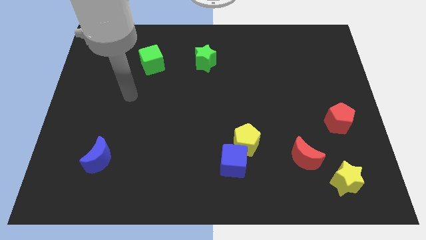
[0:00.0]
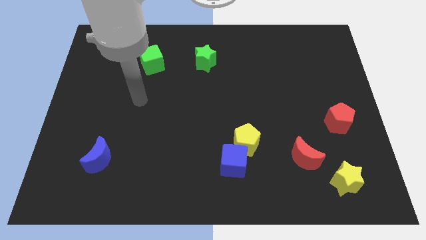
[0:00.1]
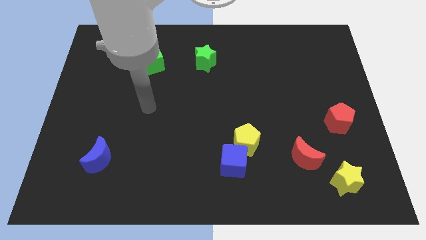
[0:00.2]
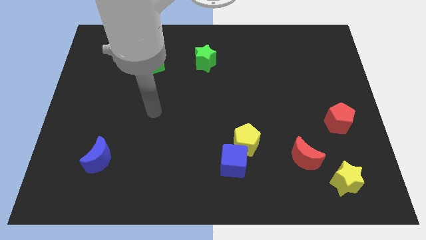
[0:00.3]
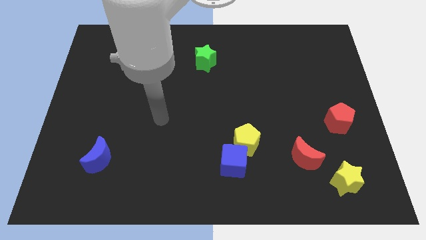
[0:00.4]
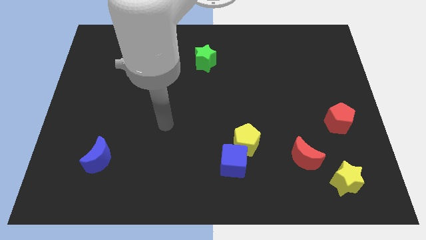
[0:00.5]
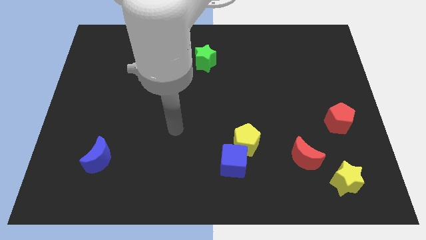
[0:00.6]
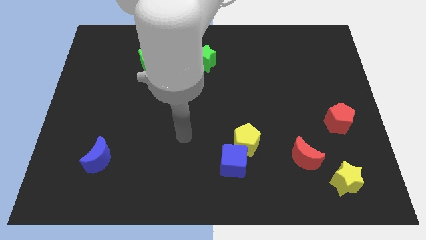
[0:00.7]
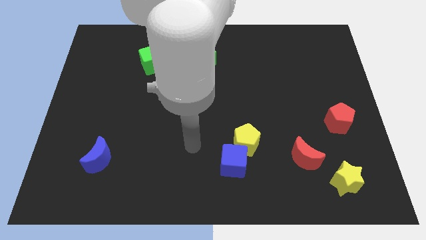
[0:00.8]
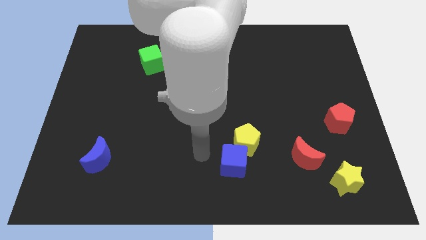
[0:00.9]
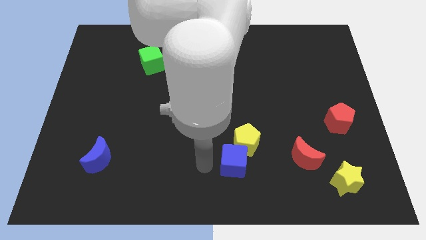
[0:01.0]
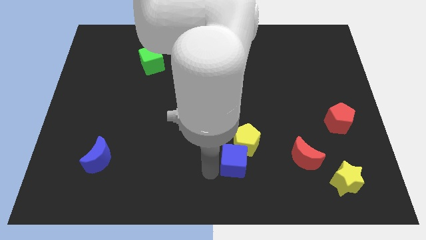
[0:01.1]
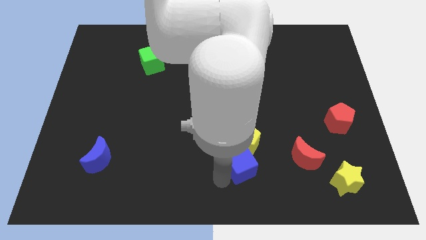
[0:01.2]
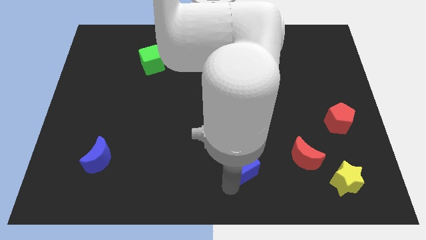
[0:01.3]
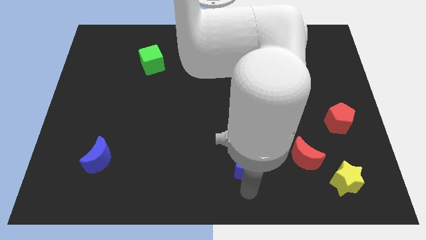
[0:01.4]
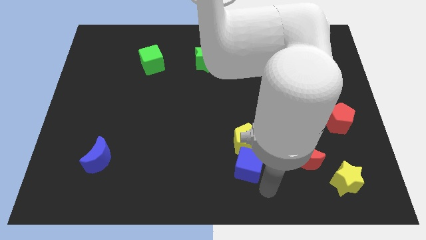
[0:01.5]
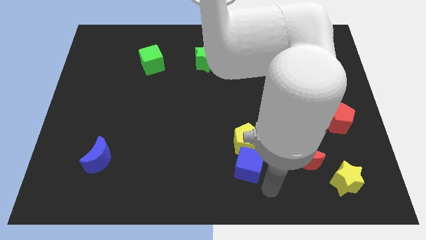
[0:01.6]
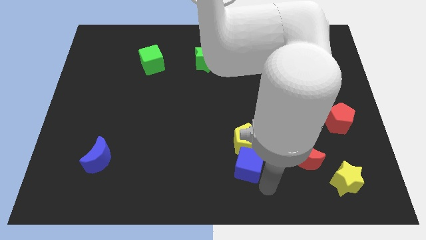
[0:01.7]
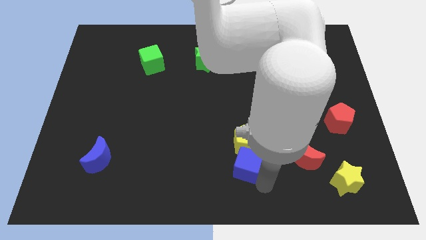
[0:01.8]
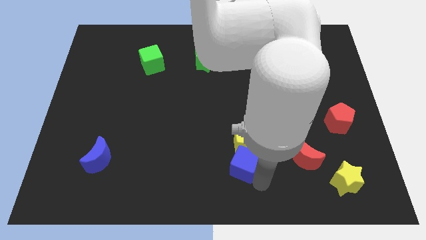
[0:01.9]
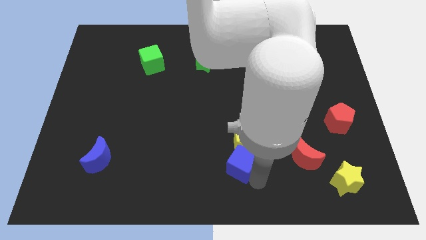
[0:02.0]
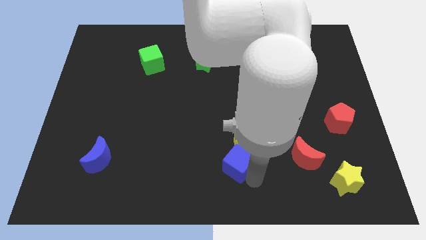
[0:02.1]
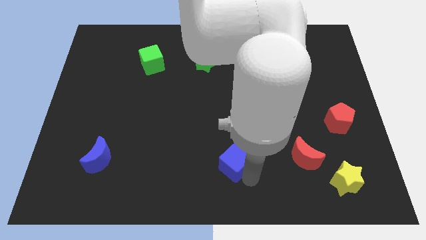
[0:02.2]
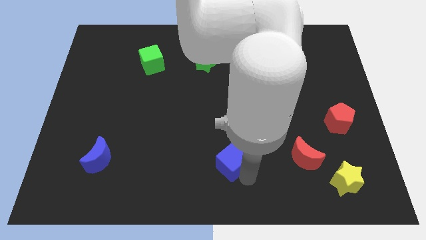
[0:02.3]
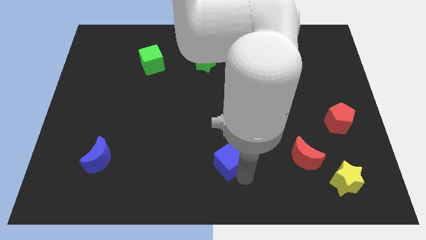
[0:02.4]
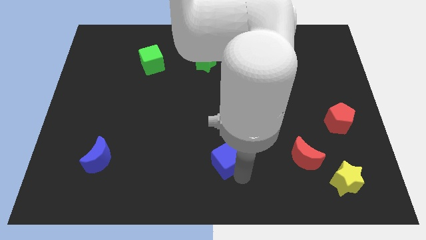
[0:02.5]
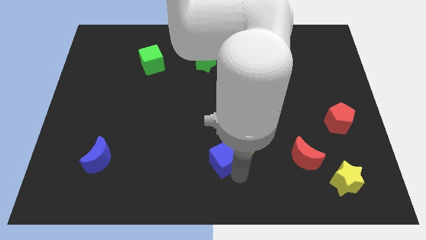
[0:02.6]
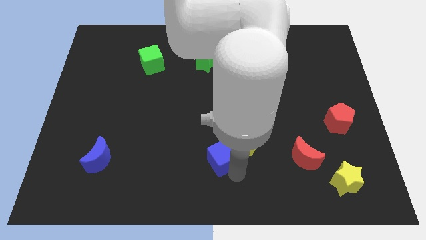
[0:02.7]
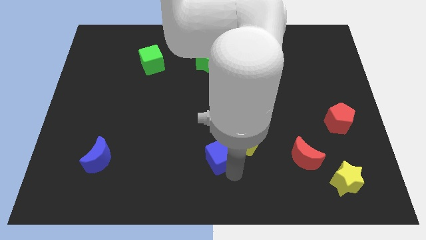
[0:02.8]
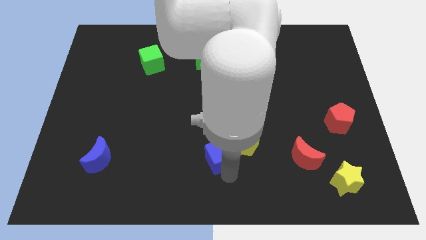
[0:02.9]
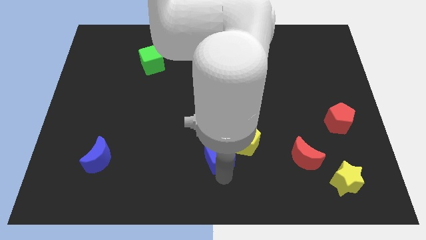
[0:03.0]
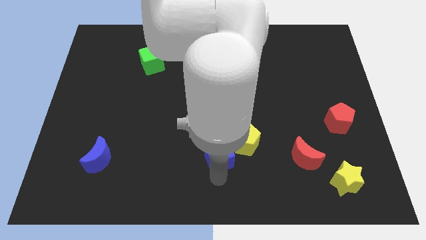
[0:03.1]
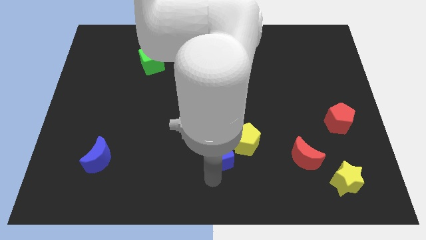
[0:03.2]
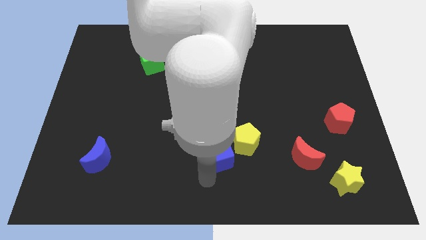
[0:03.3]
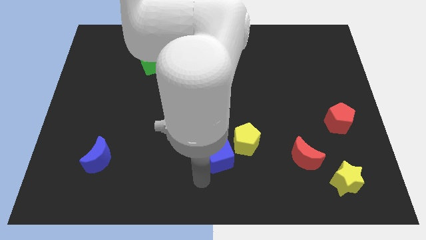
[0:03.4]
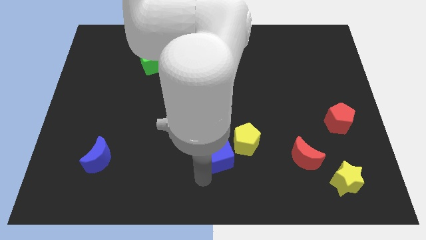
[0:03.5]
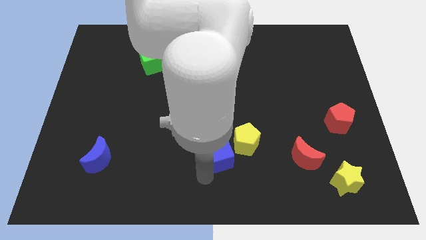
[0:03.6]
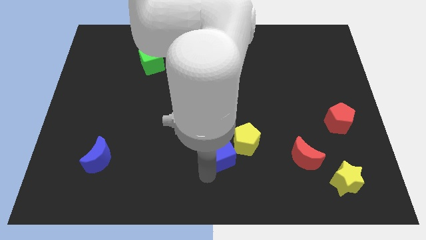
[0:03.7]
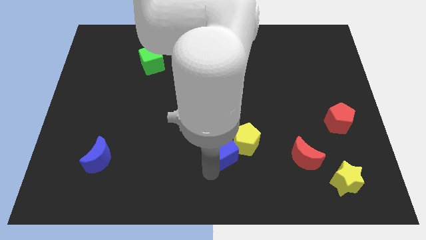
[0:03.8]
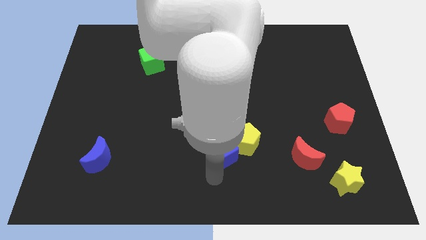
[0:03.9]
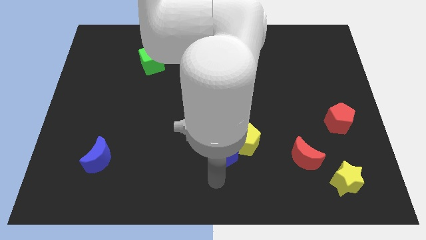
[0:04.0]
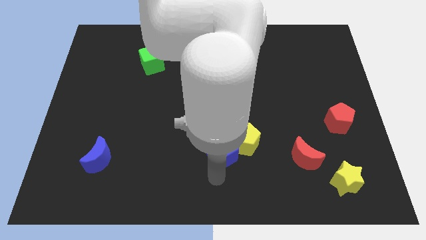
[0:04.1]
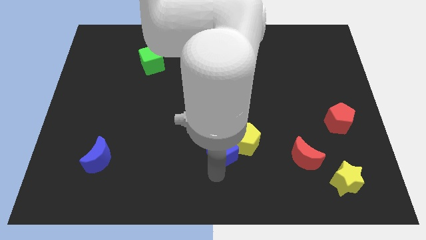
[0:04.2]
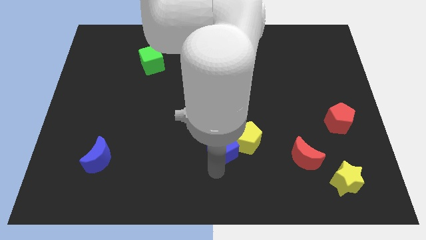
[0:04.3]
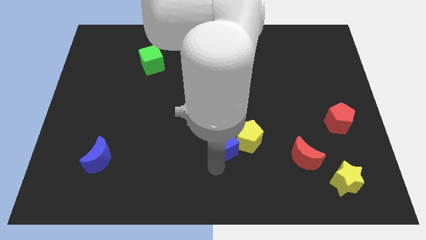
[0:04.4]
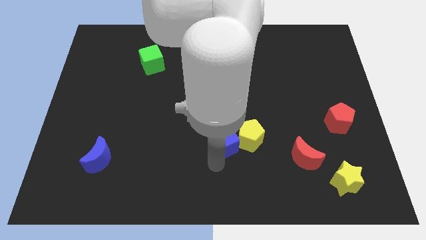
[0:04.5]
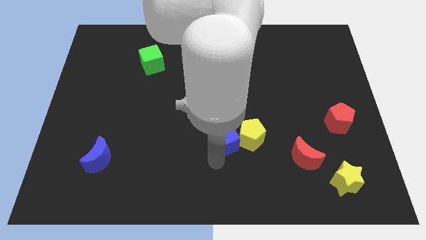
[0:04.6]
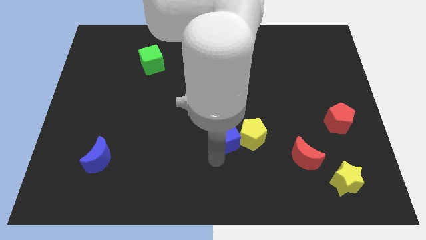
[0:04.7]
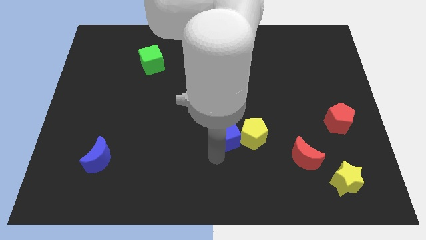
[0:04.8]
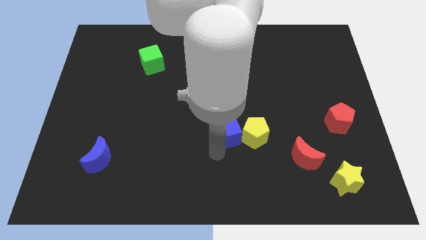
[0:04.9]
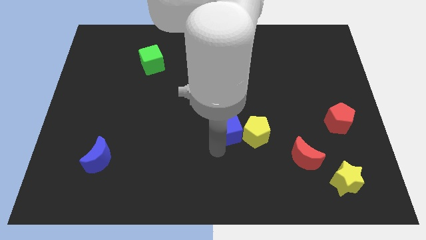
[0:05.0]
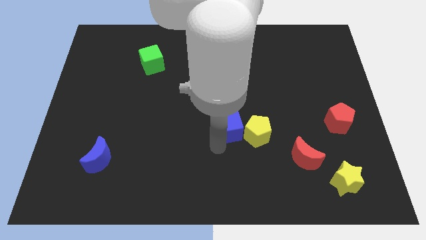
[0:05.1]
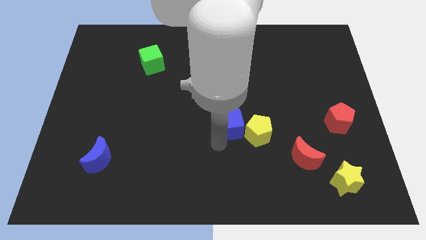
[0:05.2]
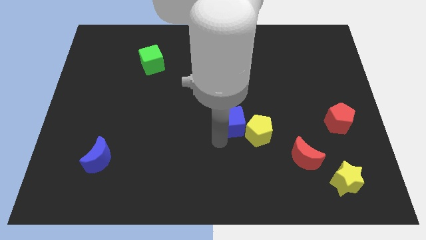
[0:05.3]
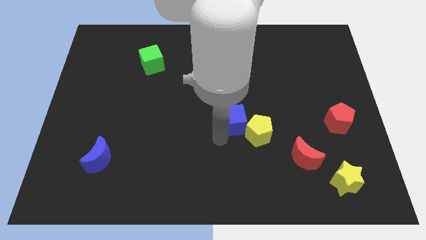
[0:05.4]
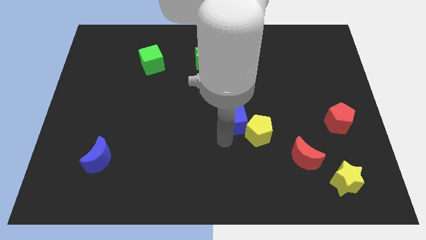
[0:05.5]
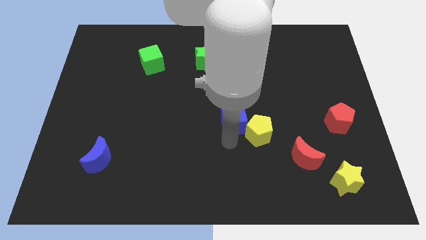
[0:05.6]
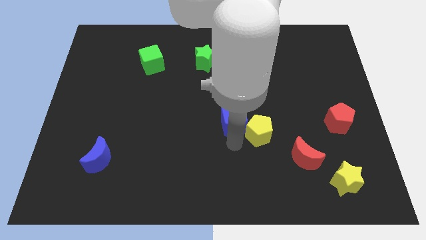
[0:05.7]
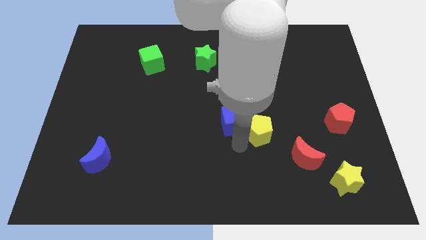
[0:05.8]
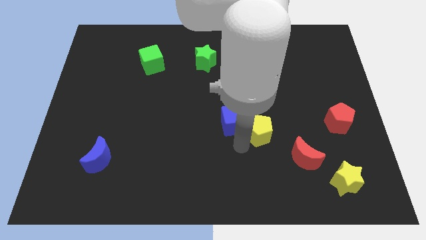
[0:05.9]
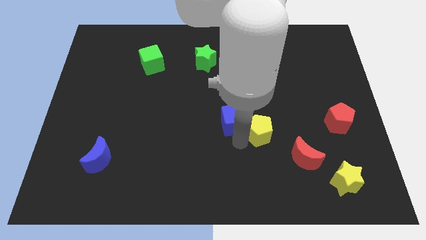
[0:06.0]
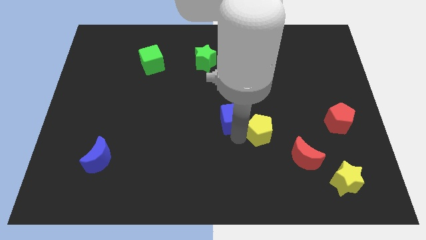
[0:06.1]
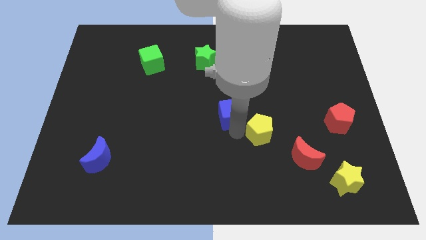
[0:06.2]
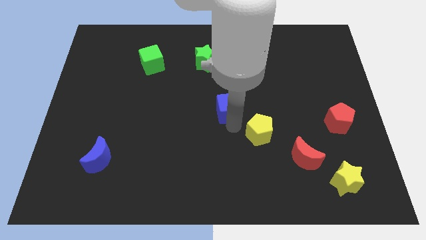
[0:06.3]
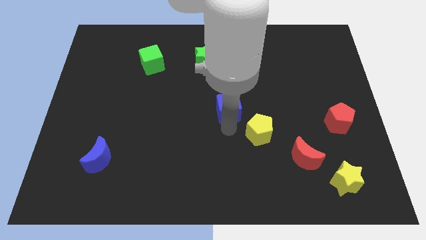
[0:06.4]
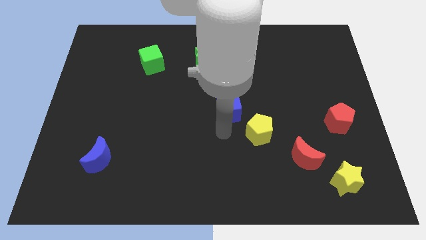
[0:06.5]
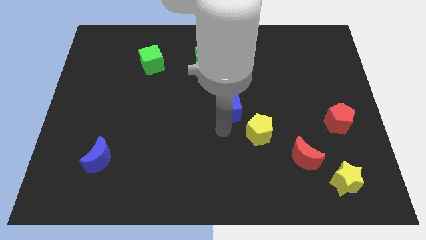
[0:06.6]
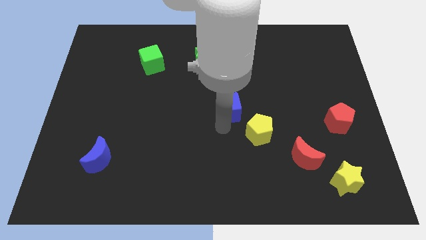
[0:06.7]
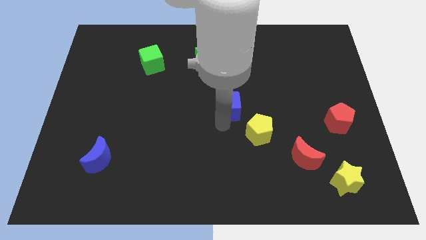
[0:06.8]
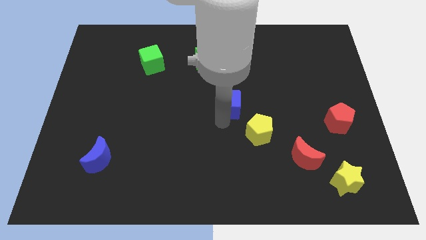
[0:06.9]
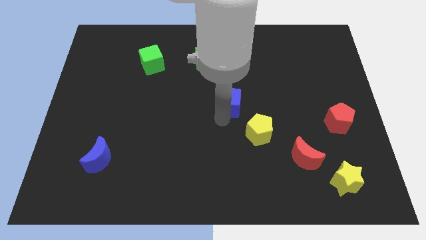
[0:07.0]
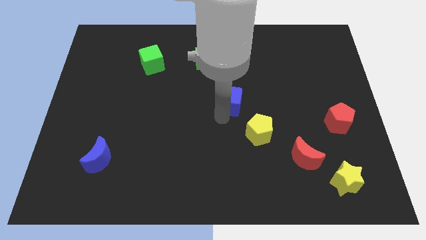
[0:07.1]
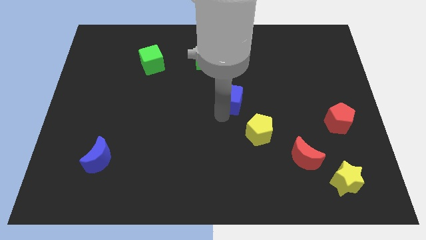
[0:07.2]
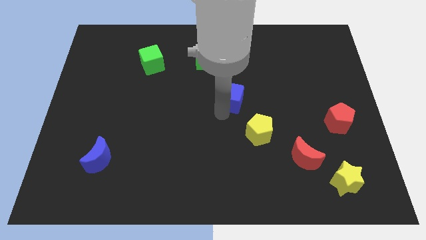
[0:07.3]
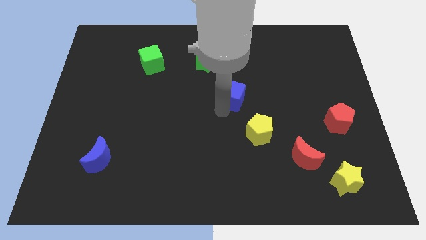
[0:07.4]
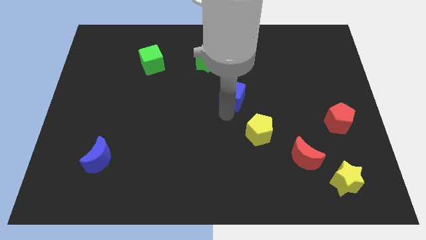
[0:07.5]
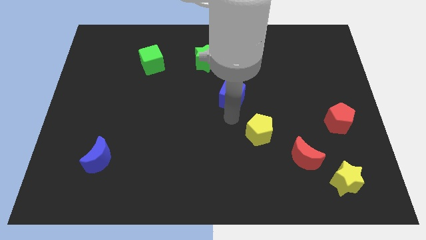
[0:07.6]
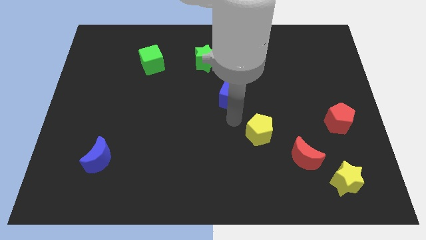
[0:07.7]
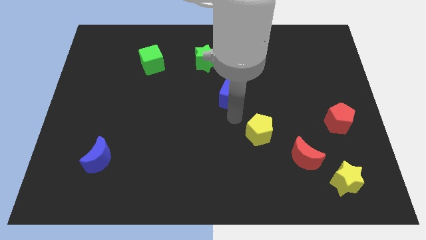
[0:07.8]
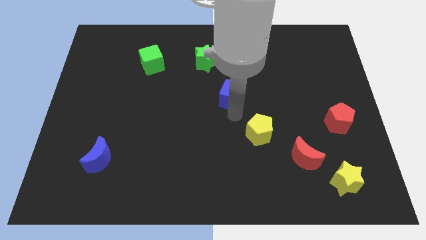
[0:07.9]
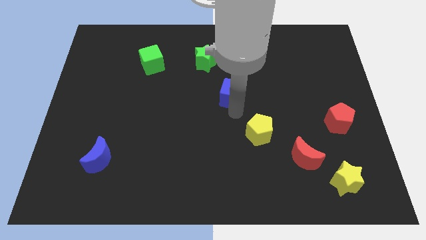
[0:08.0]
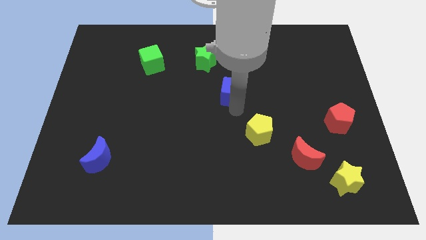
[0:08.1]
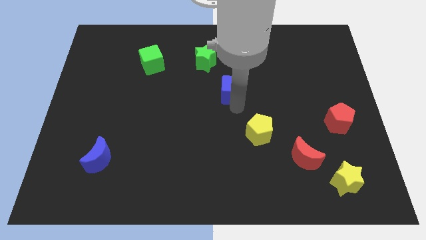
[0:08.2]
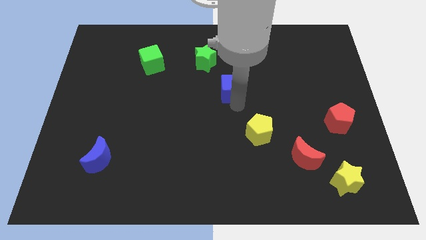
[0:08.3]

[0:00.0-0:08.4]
move the blue cube upwards
